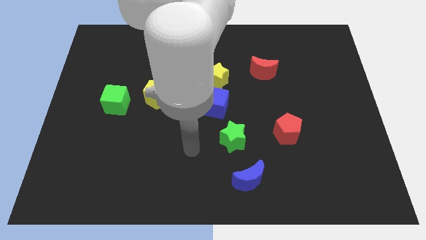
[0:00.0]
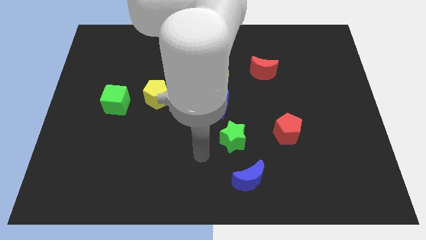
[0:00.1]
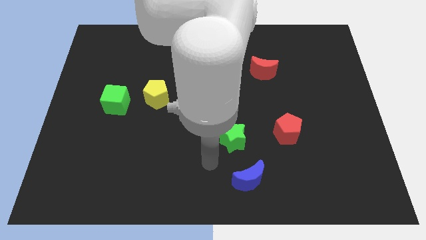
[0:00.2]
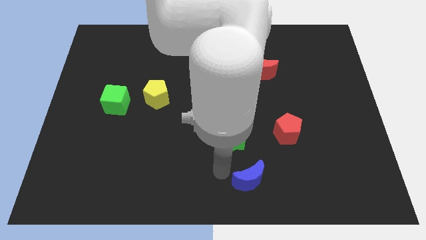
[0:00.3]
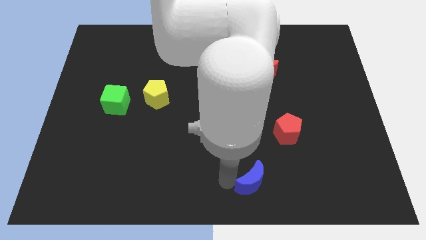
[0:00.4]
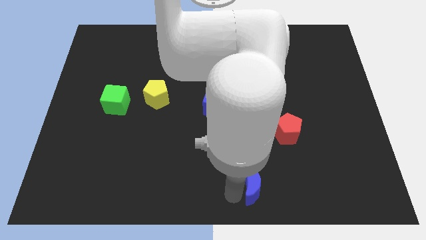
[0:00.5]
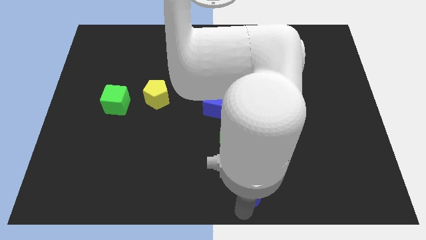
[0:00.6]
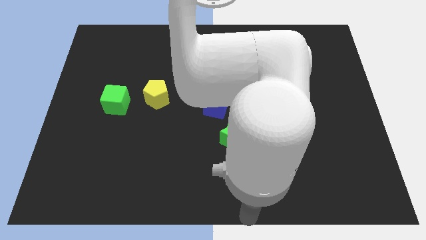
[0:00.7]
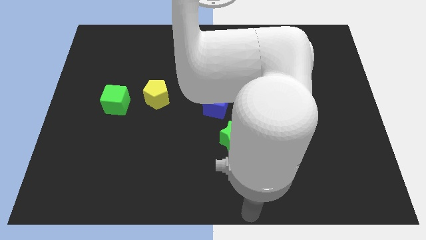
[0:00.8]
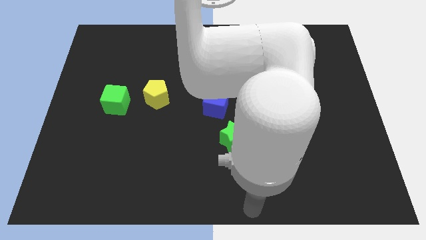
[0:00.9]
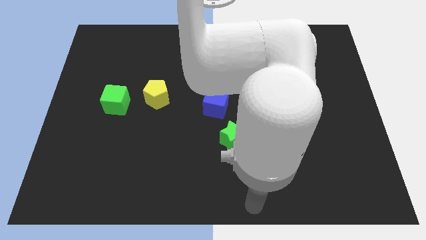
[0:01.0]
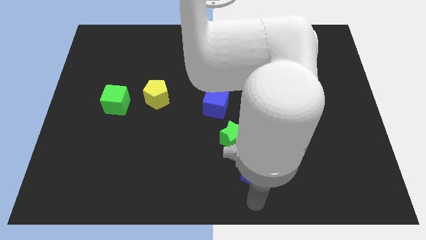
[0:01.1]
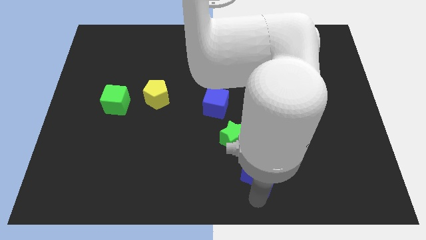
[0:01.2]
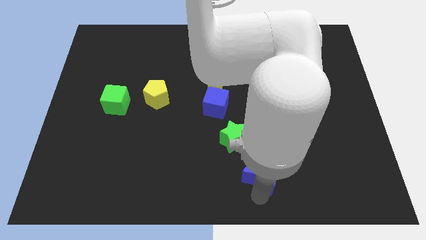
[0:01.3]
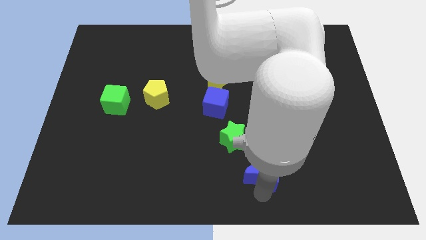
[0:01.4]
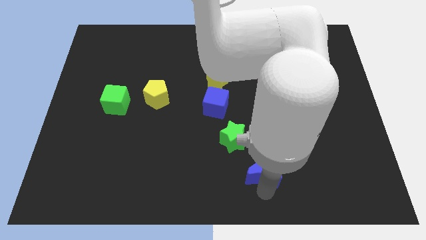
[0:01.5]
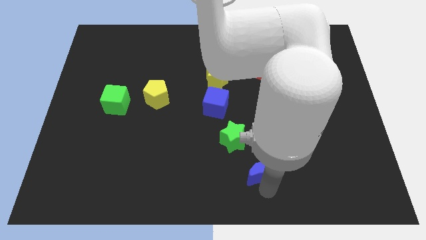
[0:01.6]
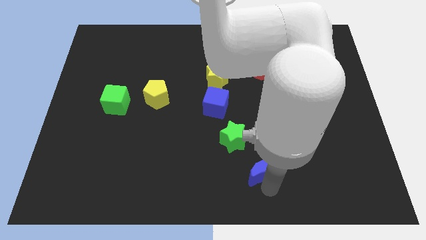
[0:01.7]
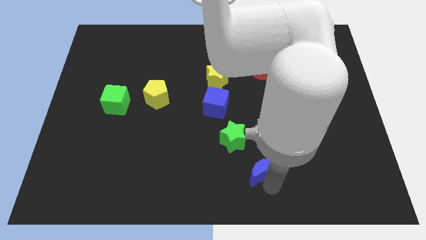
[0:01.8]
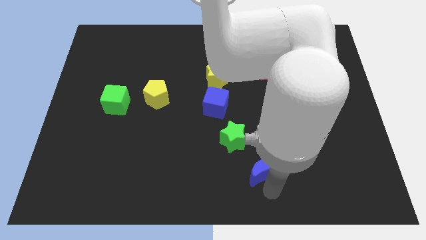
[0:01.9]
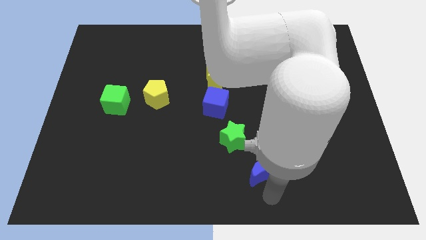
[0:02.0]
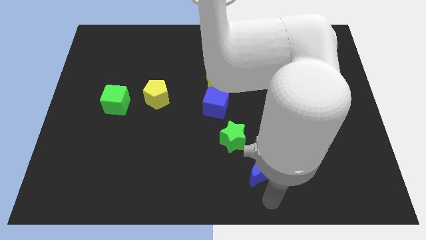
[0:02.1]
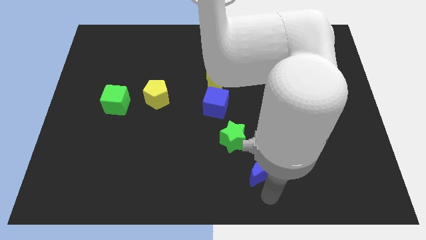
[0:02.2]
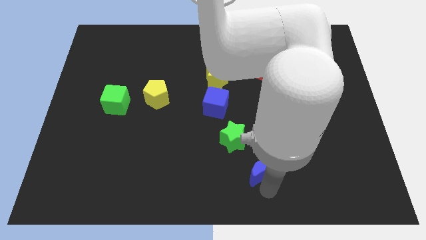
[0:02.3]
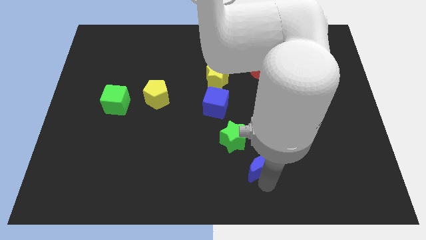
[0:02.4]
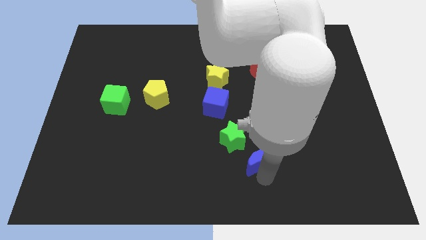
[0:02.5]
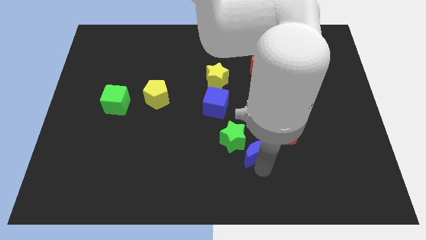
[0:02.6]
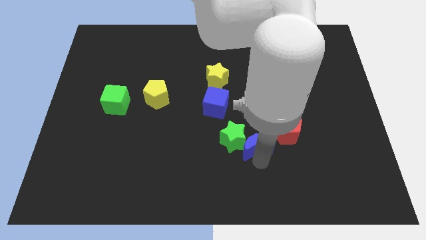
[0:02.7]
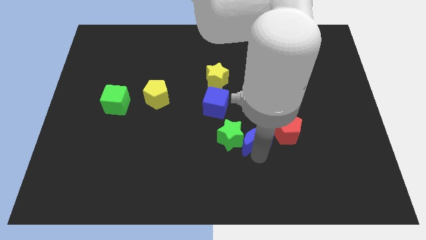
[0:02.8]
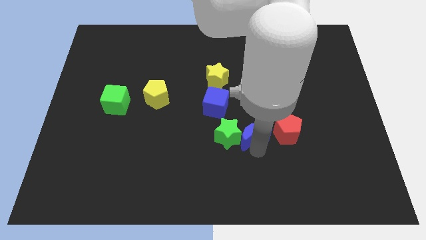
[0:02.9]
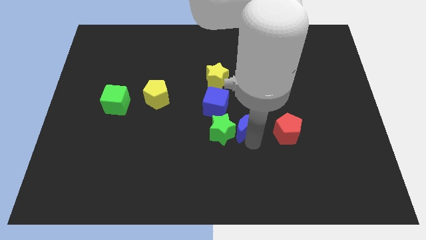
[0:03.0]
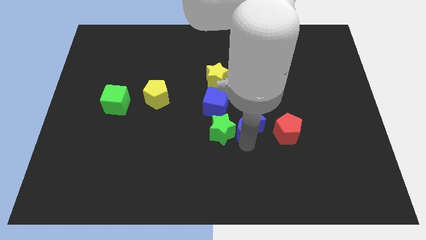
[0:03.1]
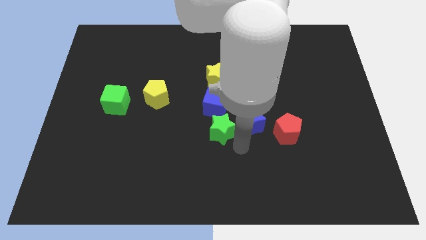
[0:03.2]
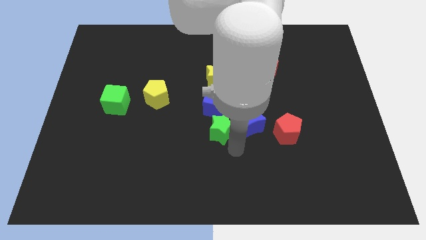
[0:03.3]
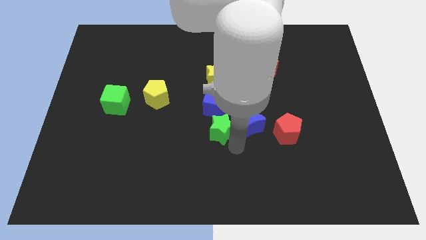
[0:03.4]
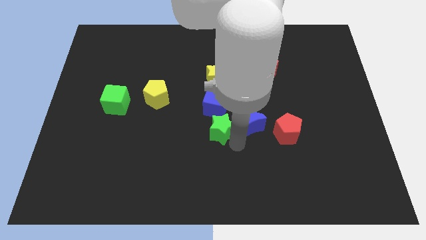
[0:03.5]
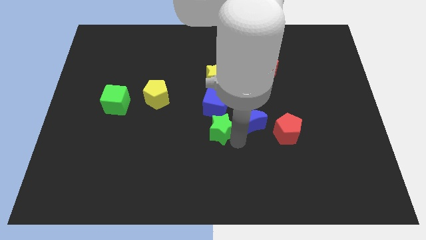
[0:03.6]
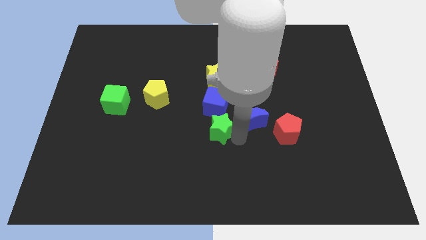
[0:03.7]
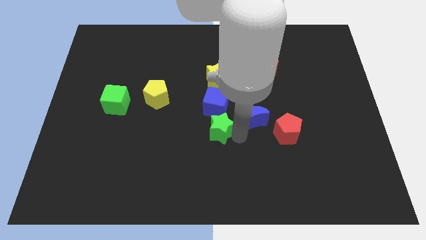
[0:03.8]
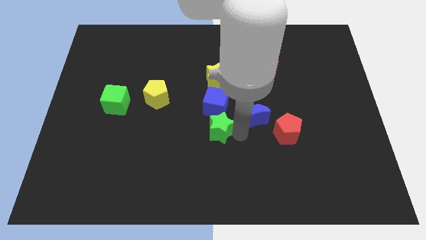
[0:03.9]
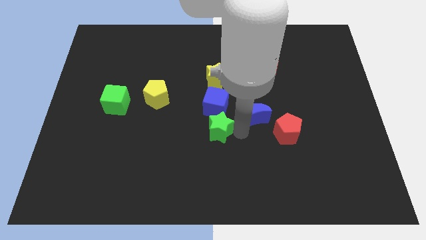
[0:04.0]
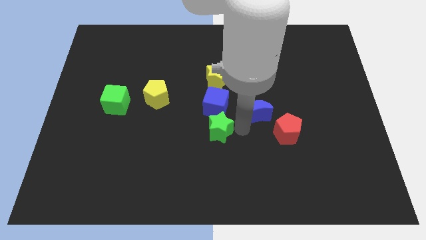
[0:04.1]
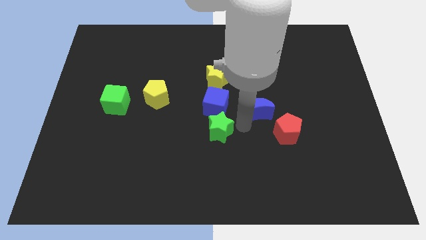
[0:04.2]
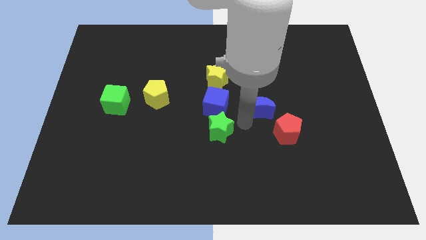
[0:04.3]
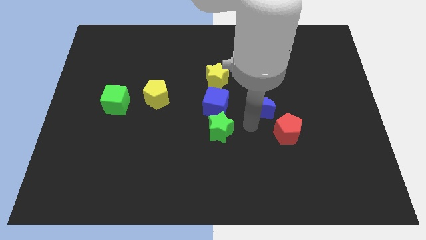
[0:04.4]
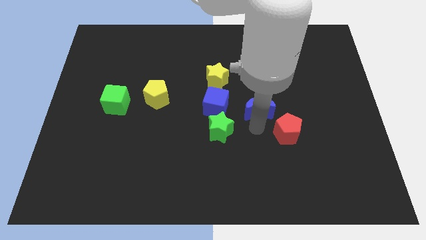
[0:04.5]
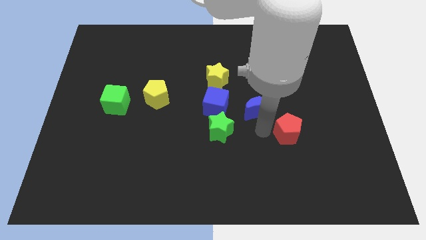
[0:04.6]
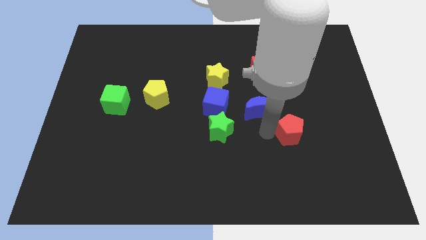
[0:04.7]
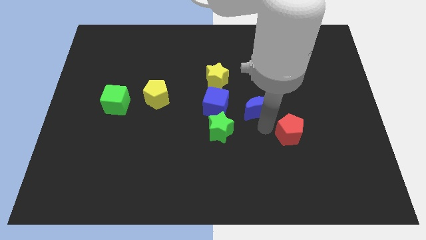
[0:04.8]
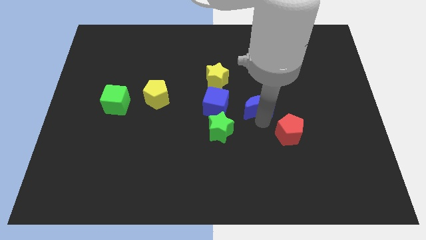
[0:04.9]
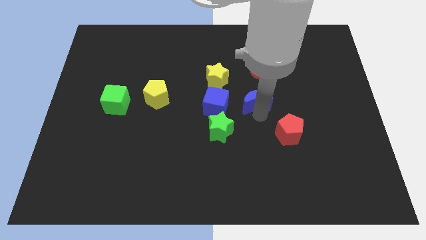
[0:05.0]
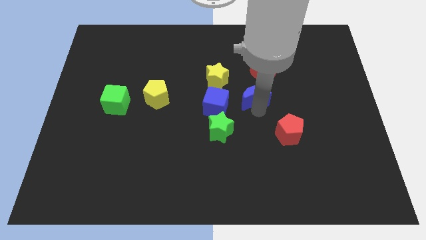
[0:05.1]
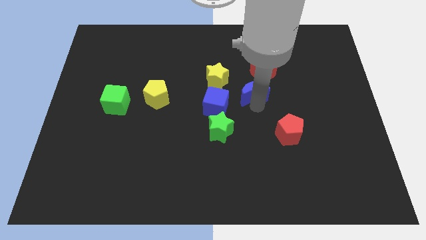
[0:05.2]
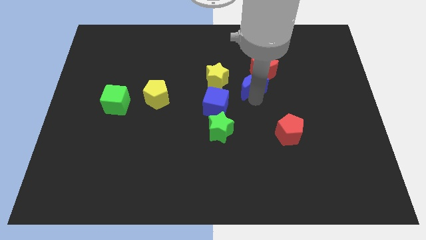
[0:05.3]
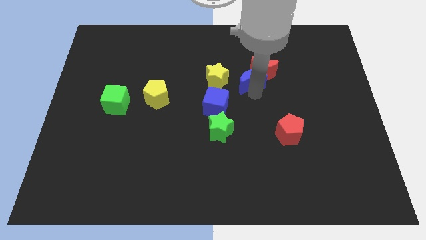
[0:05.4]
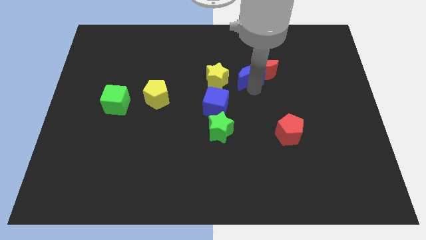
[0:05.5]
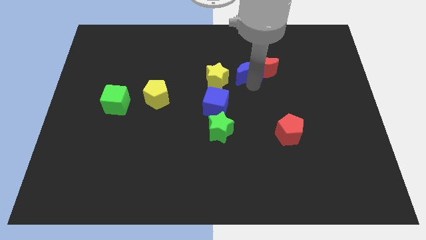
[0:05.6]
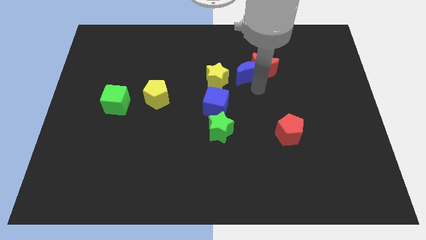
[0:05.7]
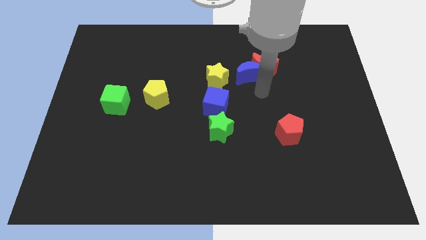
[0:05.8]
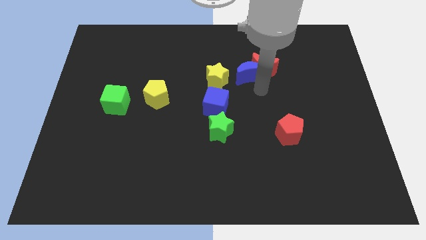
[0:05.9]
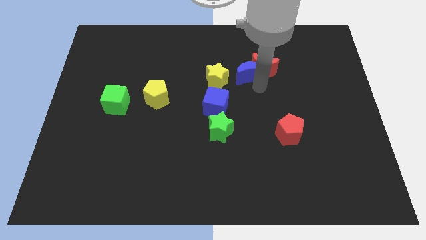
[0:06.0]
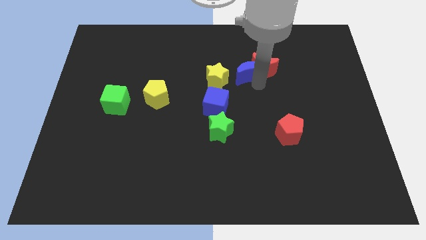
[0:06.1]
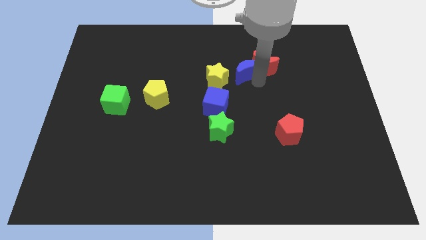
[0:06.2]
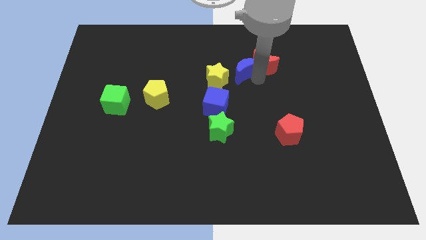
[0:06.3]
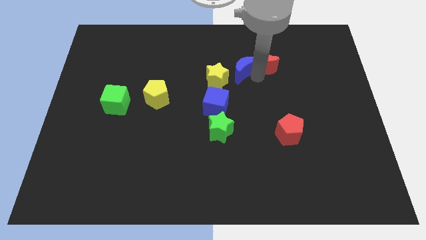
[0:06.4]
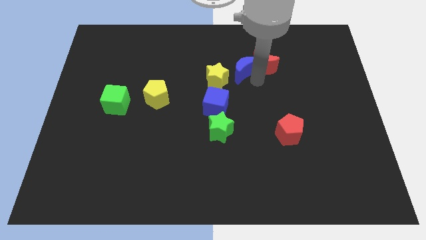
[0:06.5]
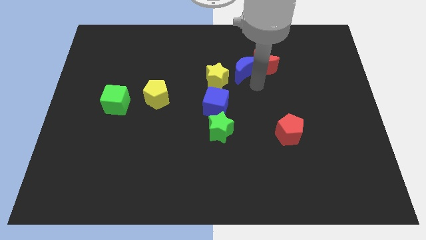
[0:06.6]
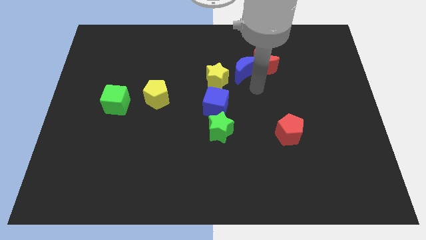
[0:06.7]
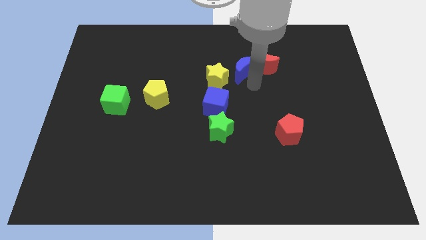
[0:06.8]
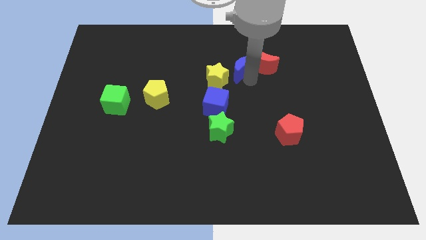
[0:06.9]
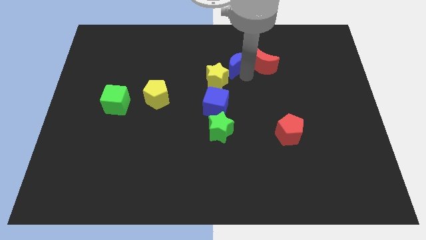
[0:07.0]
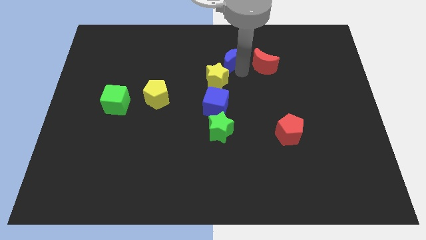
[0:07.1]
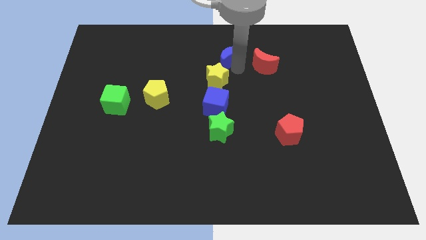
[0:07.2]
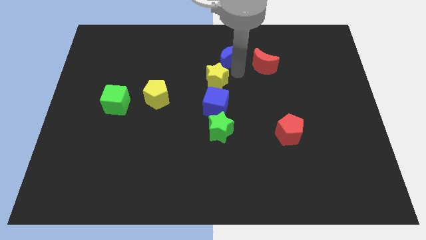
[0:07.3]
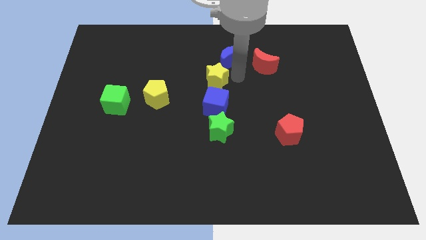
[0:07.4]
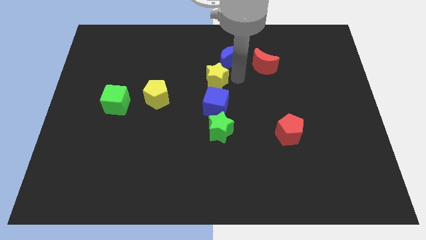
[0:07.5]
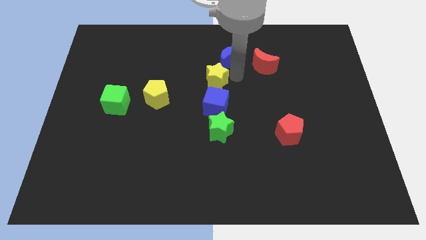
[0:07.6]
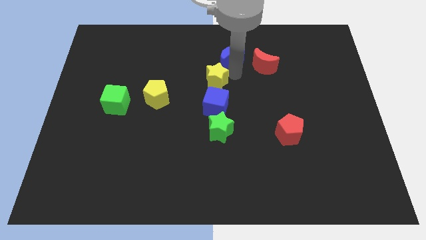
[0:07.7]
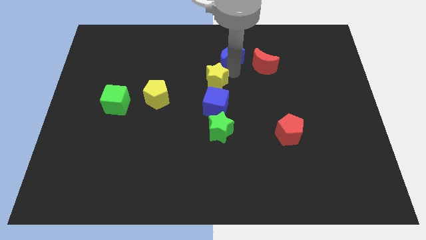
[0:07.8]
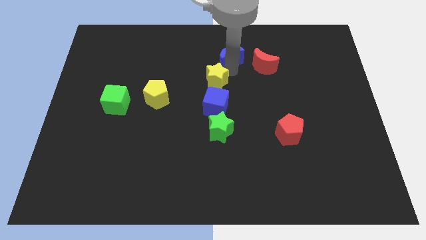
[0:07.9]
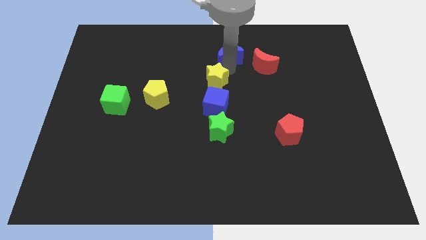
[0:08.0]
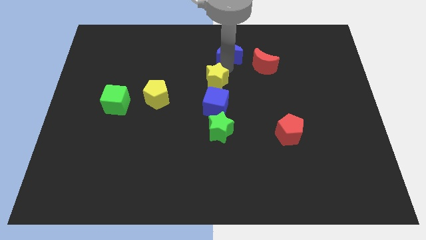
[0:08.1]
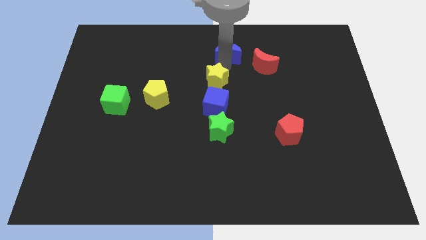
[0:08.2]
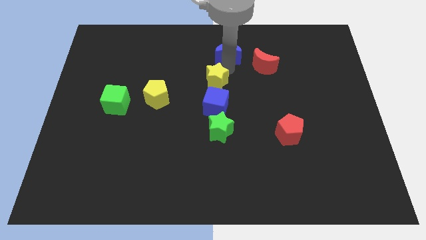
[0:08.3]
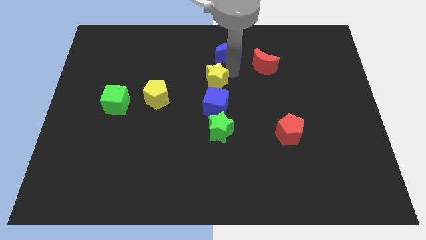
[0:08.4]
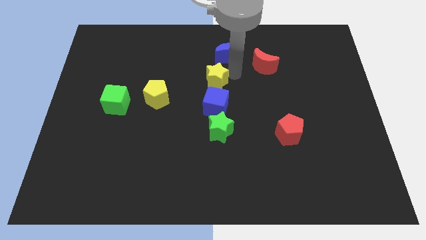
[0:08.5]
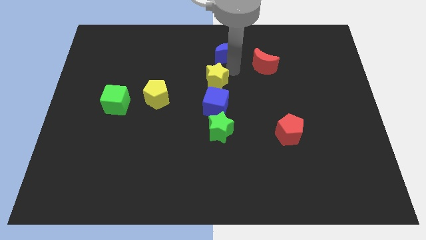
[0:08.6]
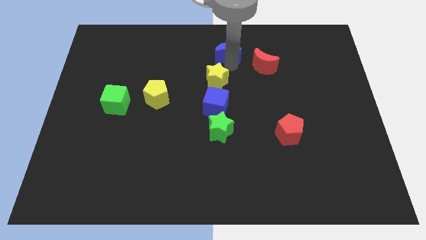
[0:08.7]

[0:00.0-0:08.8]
move the blue moon to the top
